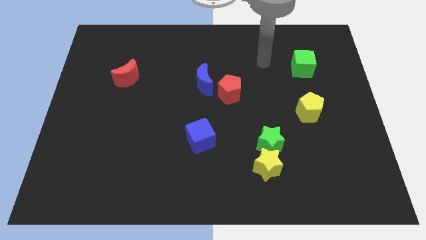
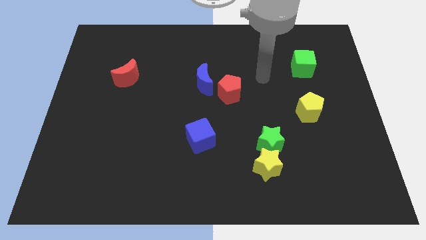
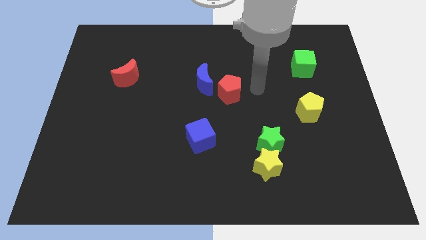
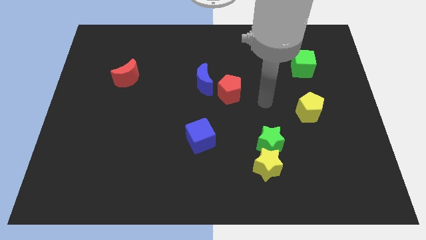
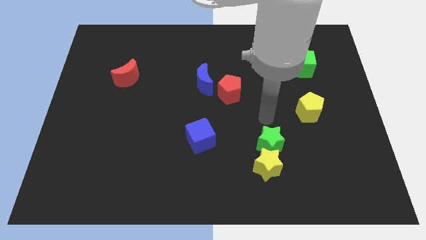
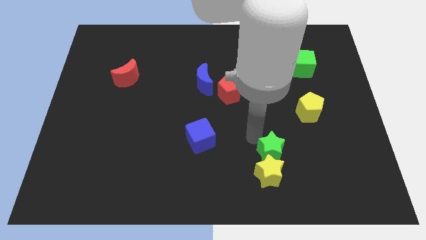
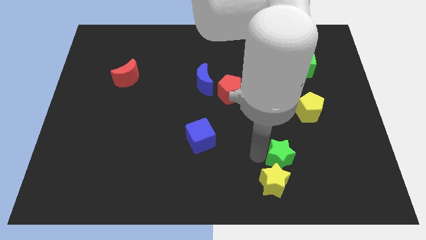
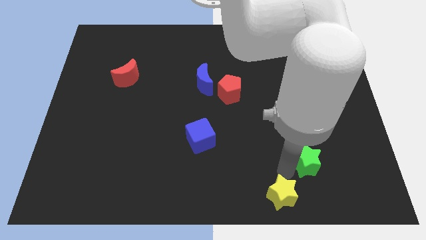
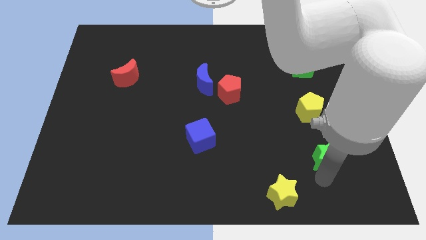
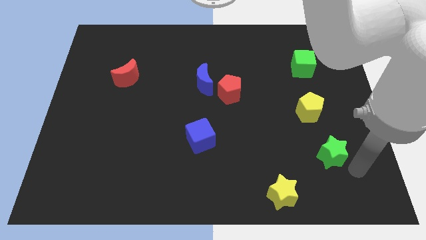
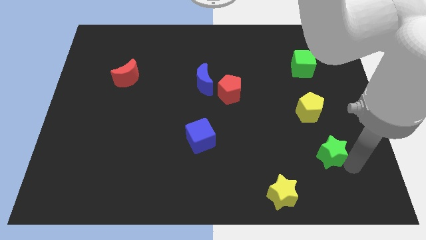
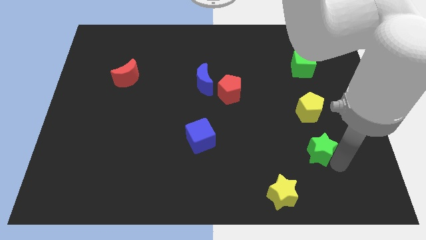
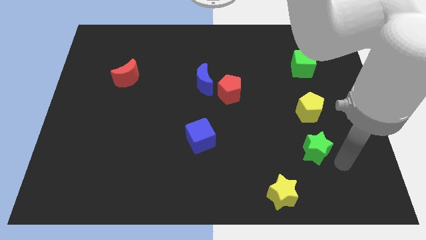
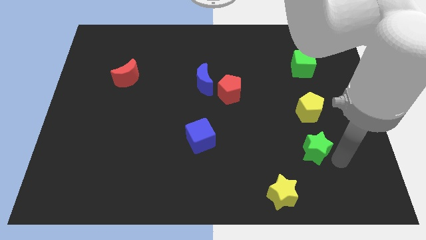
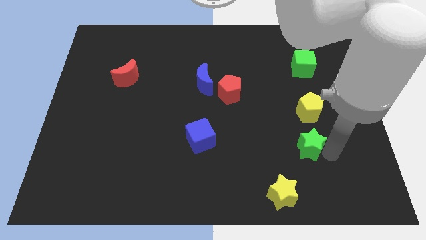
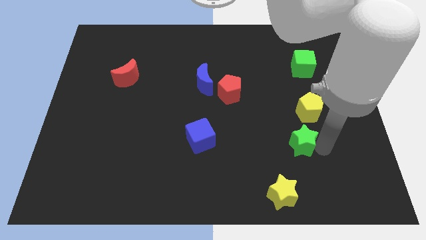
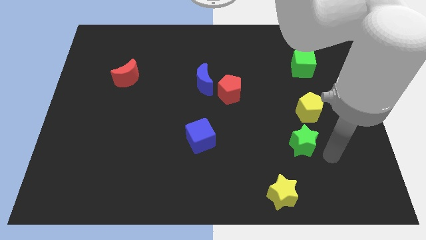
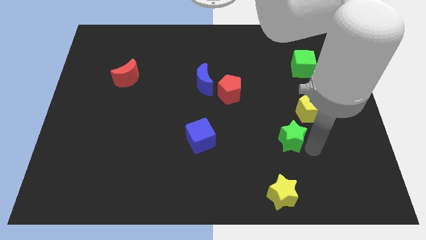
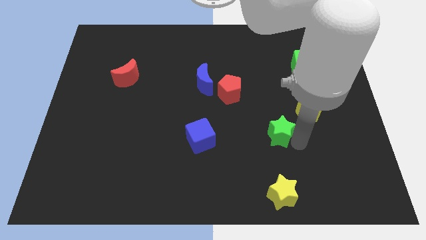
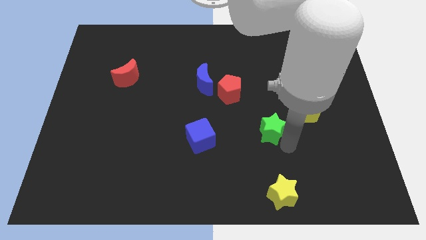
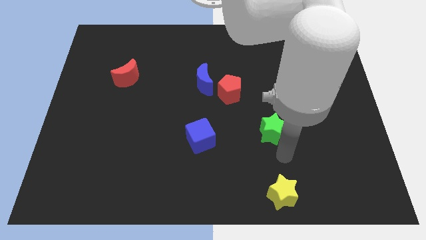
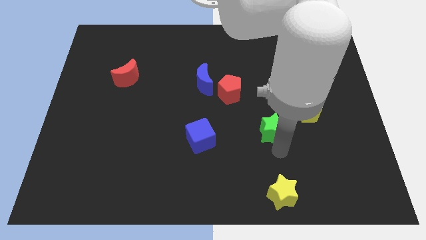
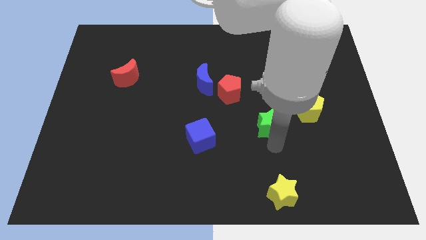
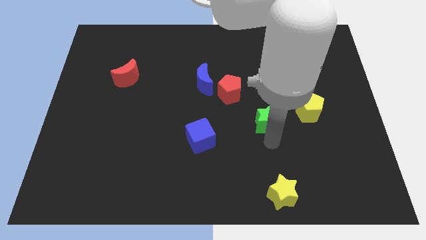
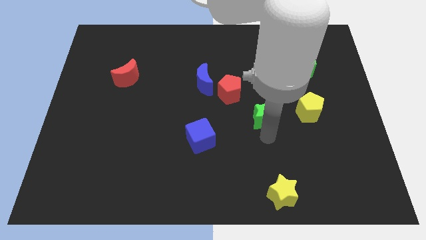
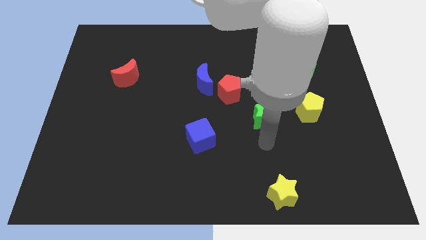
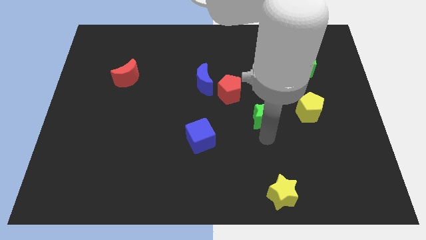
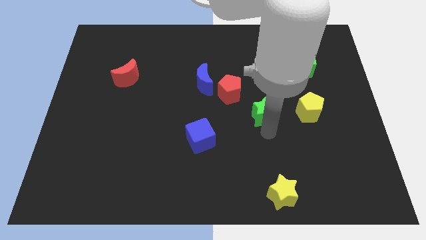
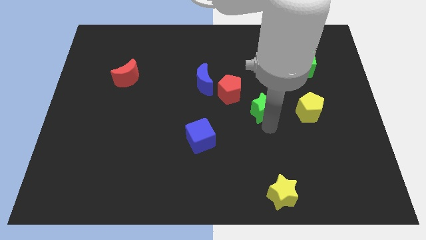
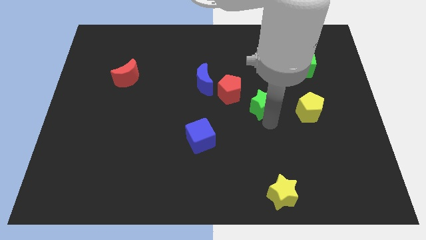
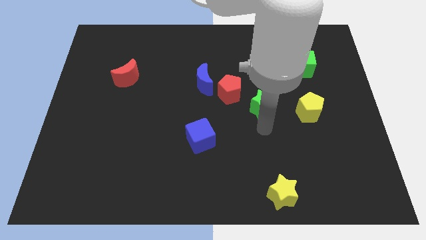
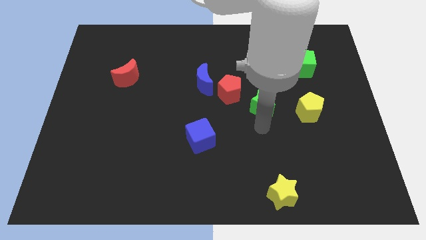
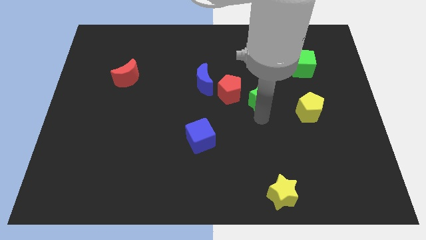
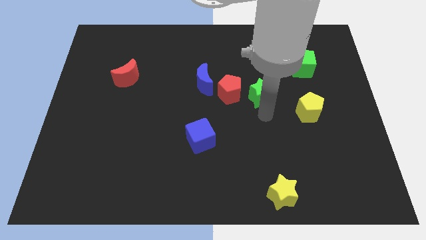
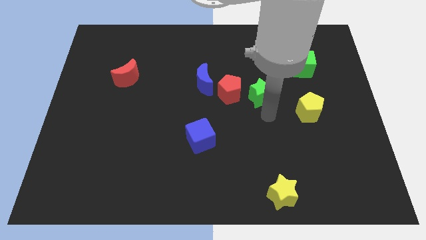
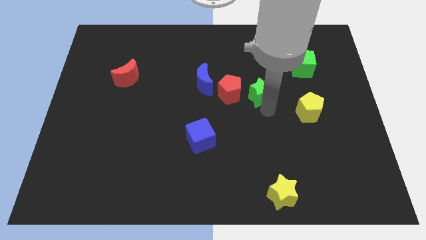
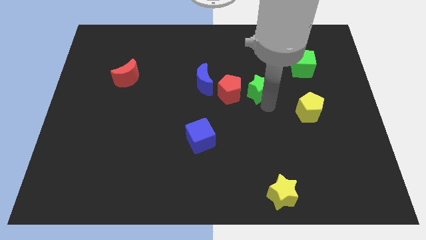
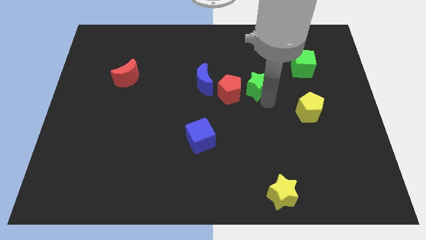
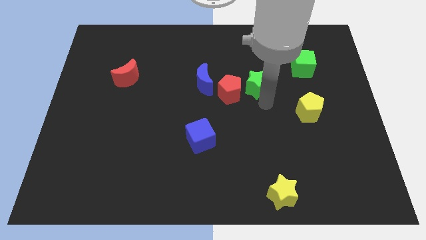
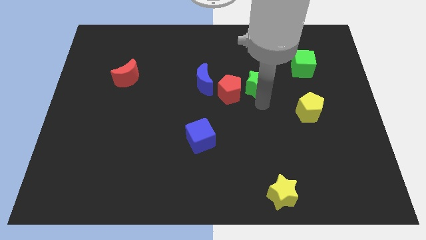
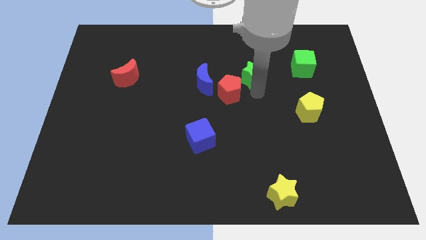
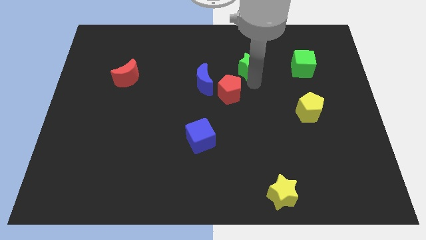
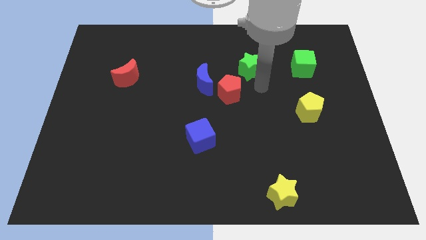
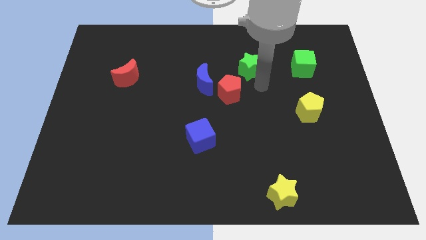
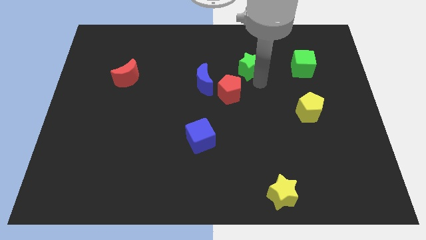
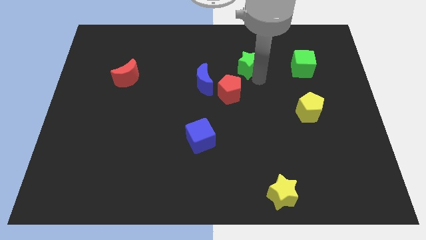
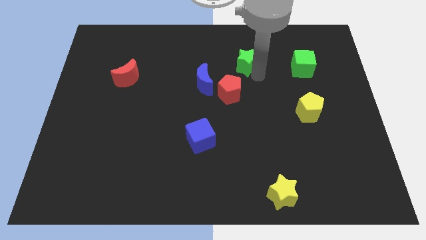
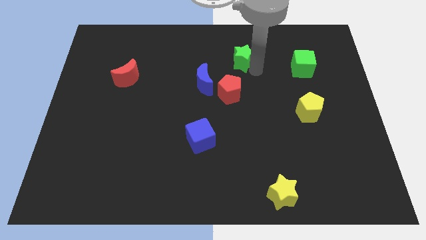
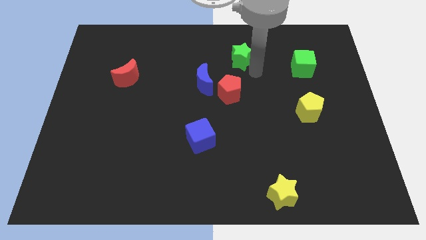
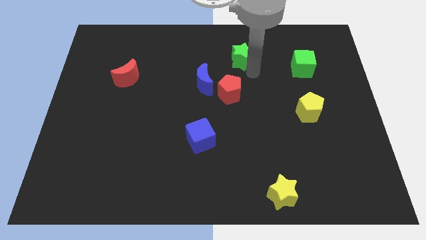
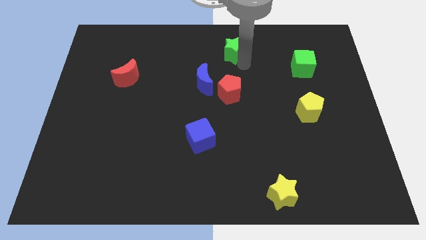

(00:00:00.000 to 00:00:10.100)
put the green star to the top side

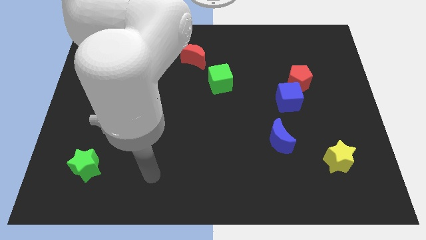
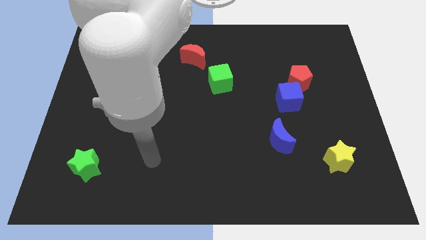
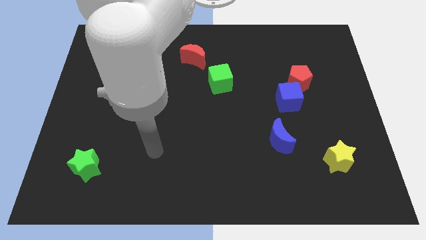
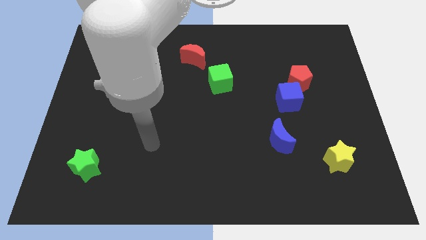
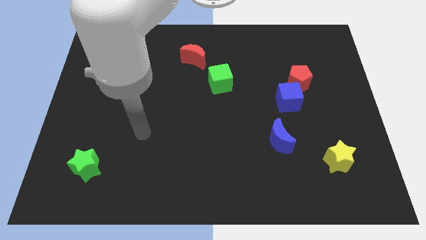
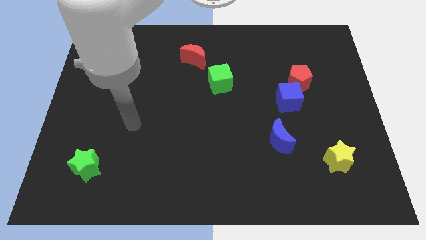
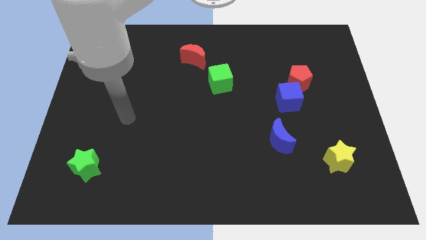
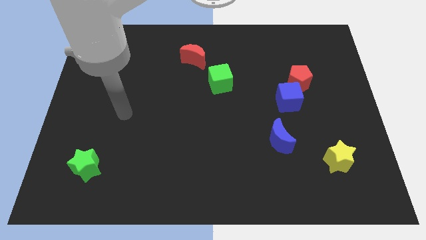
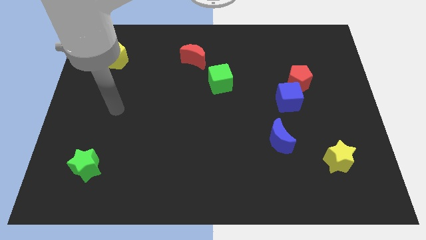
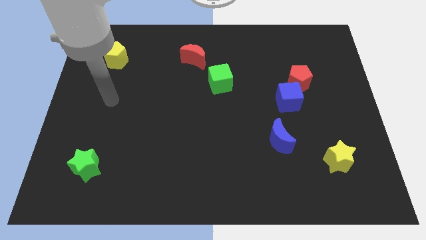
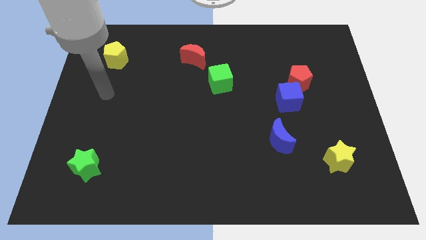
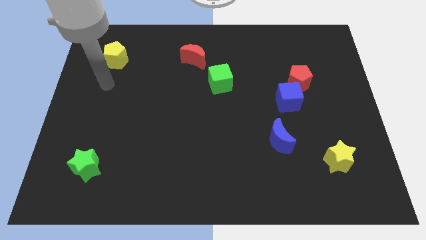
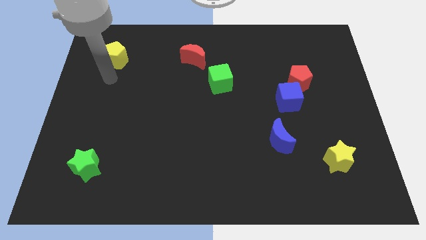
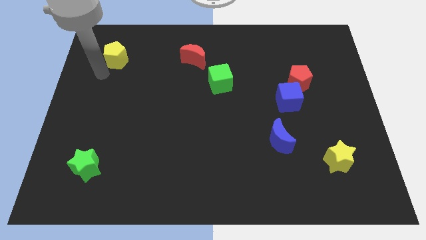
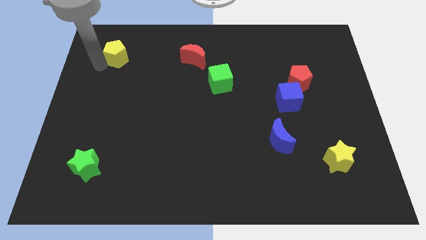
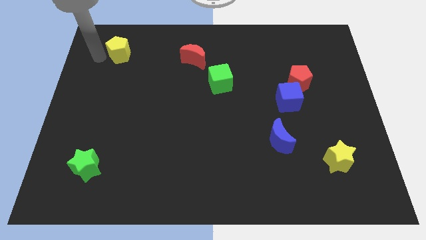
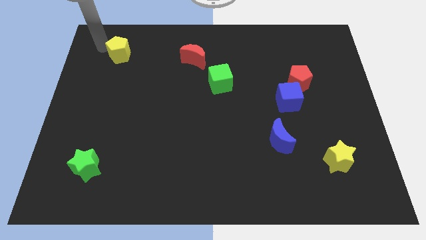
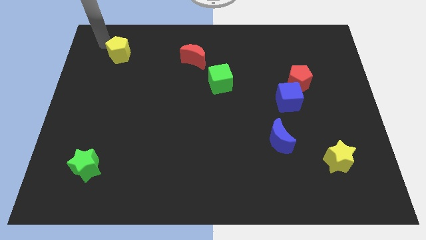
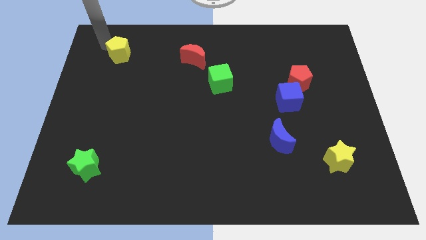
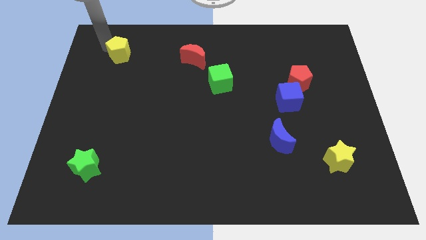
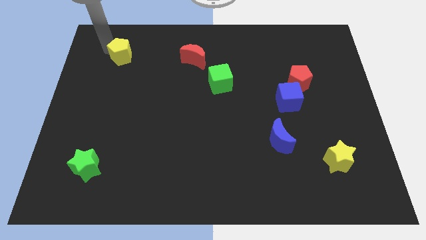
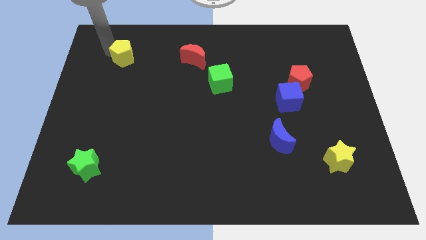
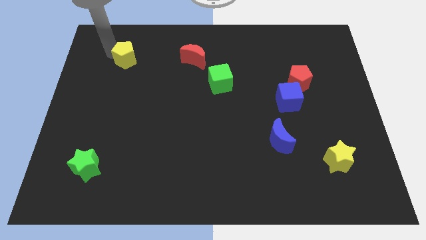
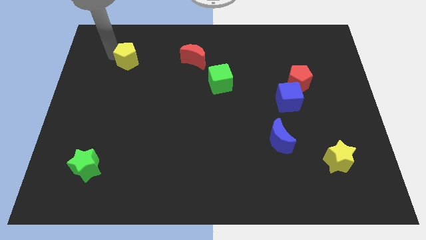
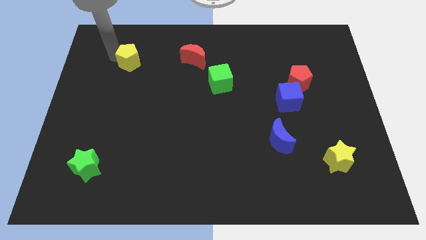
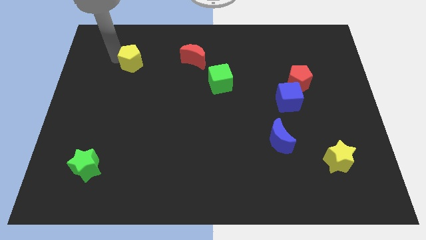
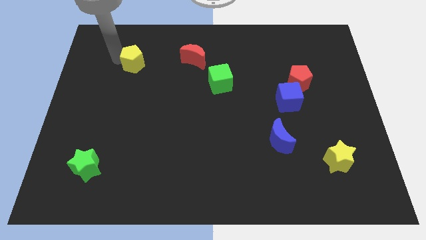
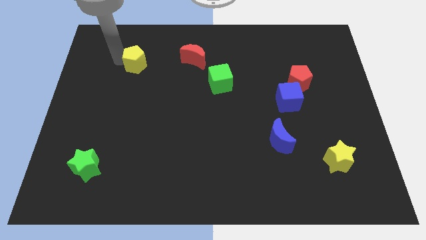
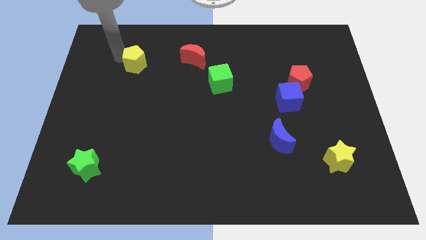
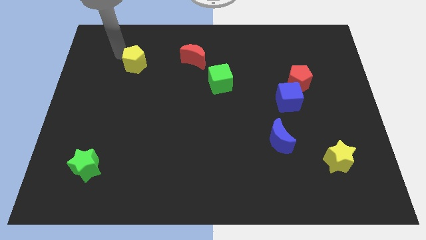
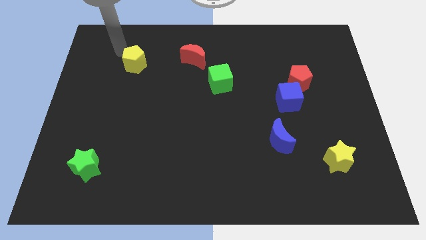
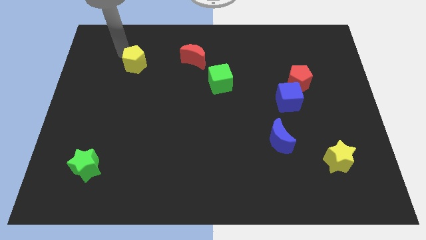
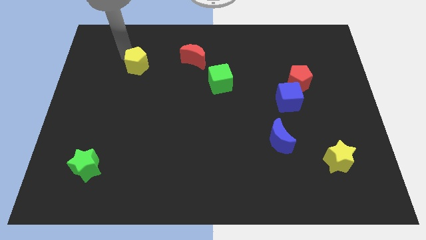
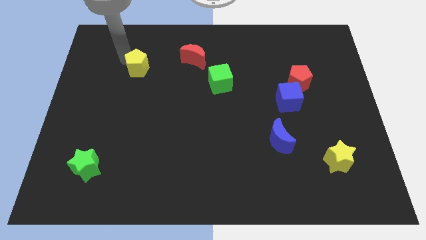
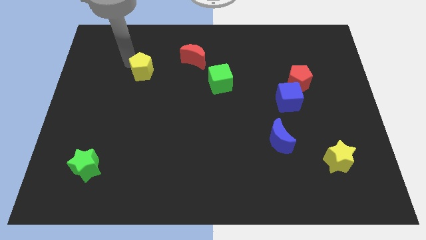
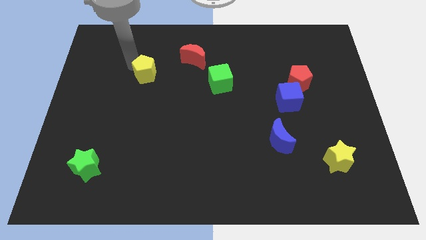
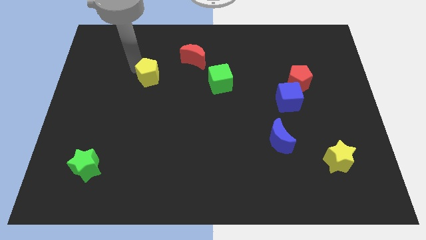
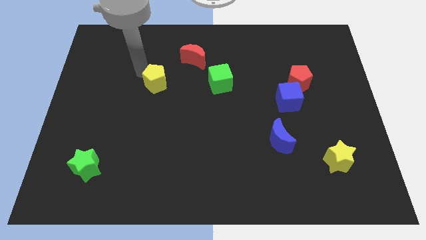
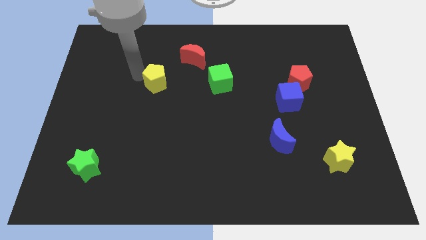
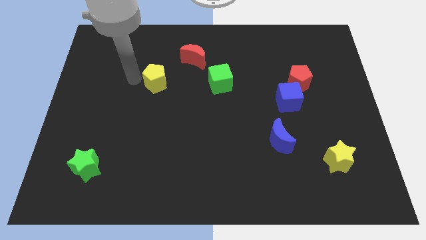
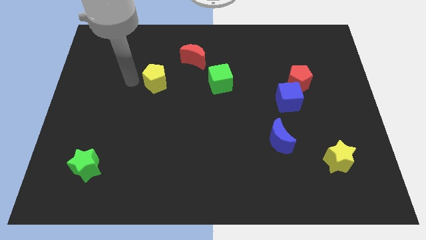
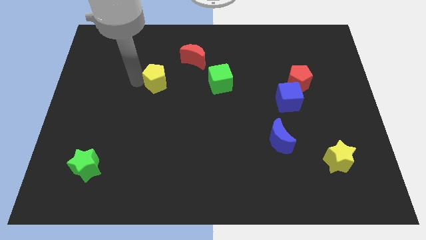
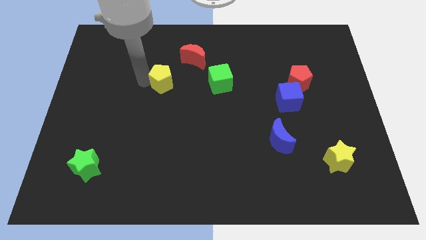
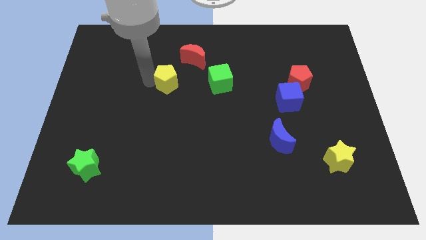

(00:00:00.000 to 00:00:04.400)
move the yellow pentagon to the center of the board
